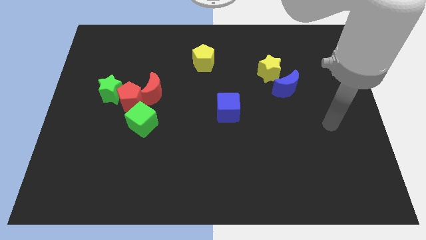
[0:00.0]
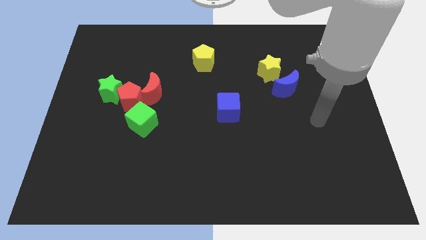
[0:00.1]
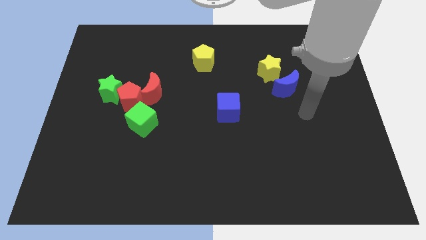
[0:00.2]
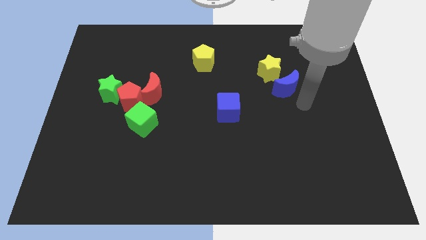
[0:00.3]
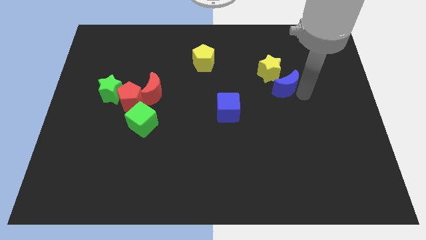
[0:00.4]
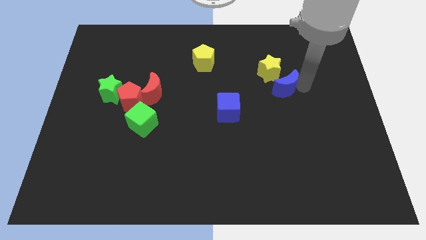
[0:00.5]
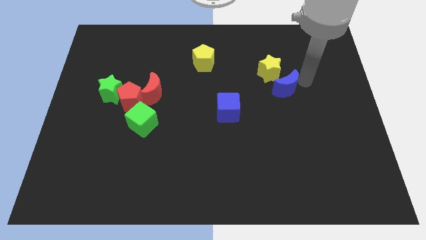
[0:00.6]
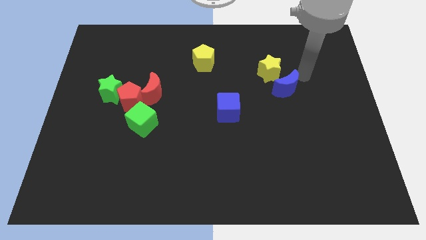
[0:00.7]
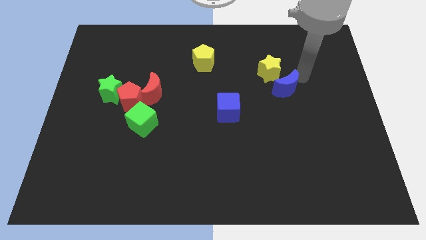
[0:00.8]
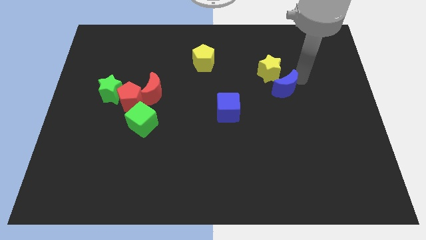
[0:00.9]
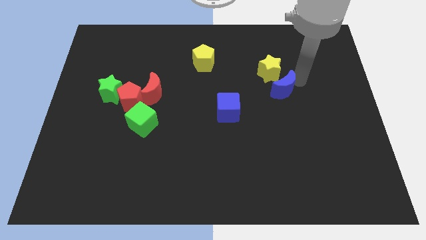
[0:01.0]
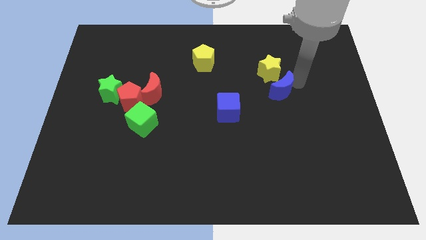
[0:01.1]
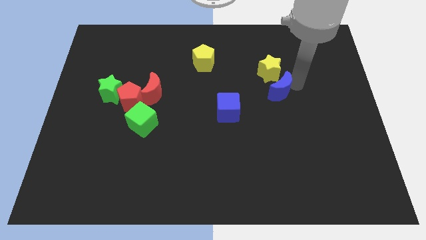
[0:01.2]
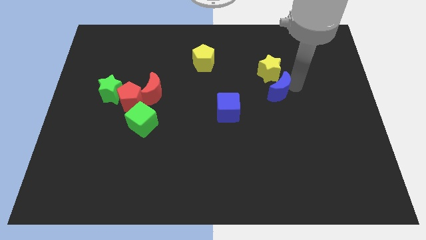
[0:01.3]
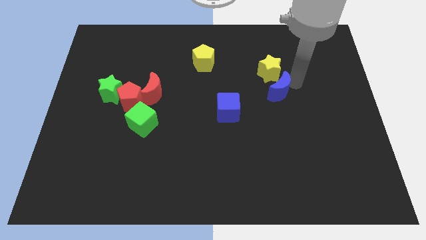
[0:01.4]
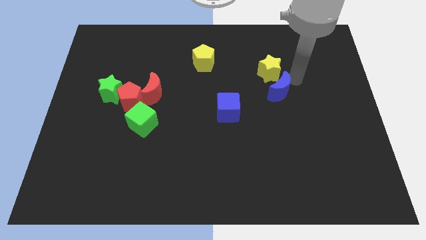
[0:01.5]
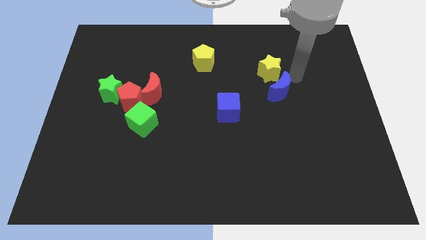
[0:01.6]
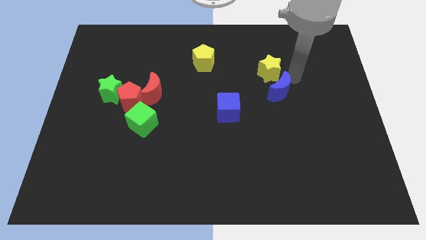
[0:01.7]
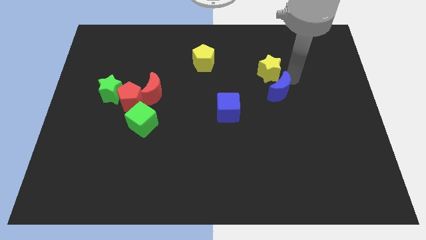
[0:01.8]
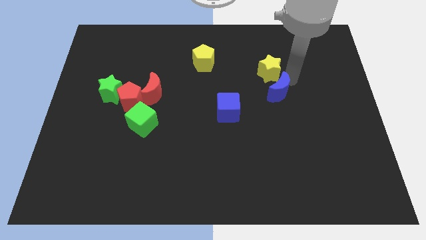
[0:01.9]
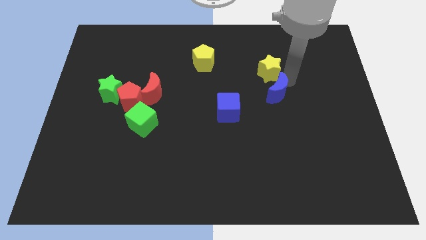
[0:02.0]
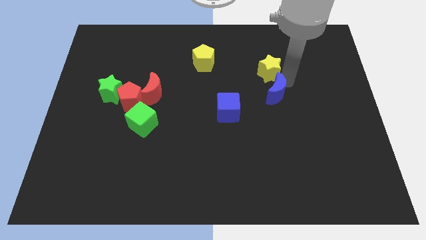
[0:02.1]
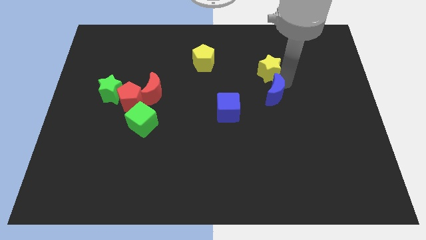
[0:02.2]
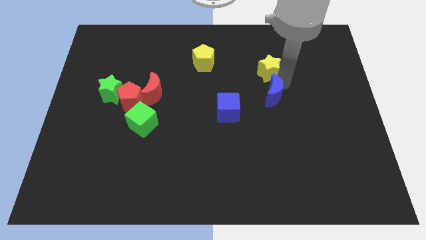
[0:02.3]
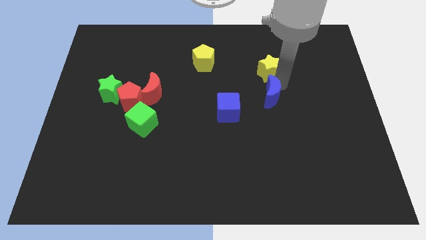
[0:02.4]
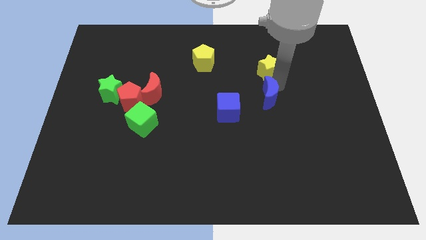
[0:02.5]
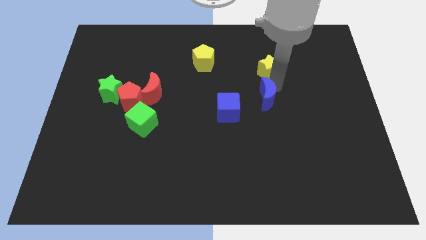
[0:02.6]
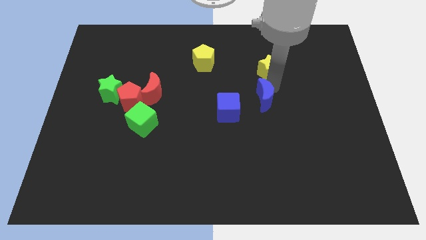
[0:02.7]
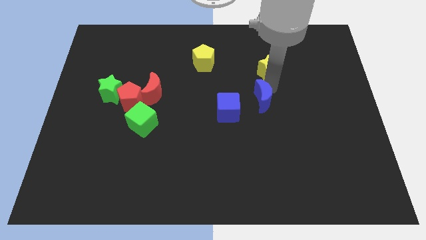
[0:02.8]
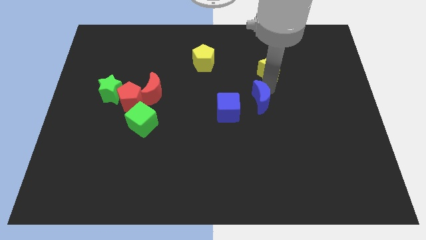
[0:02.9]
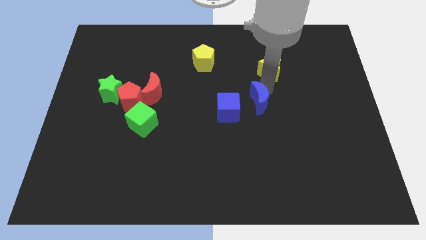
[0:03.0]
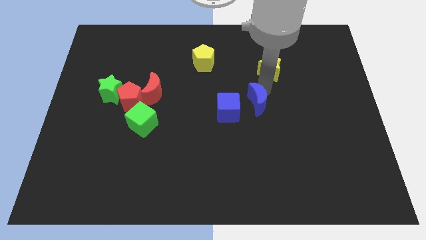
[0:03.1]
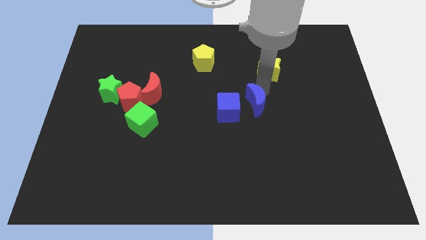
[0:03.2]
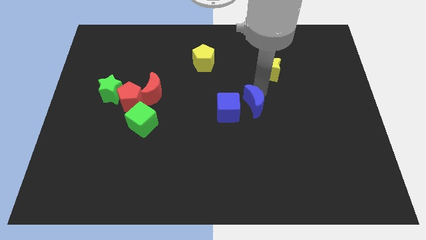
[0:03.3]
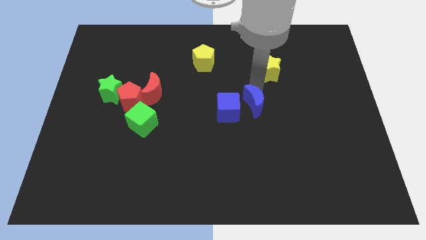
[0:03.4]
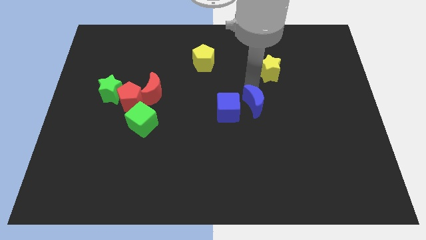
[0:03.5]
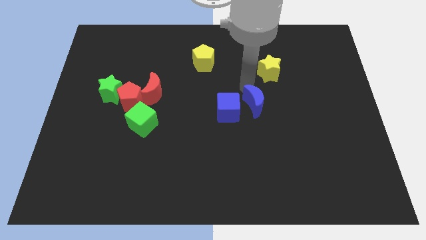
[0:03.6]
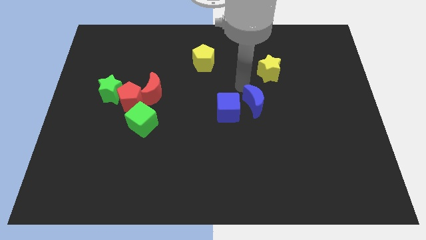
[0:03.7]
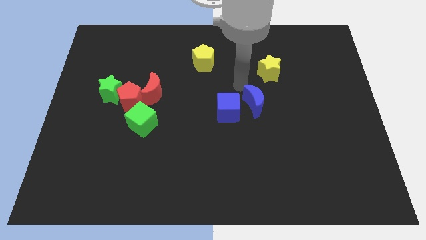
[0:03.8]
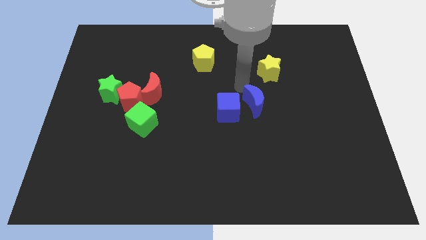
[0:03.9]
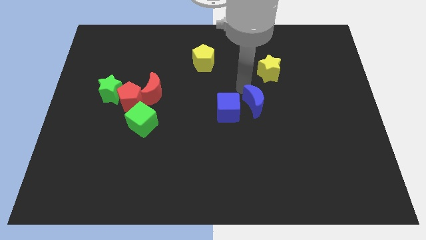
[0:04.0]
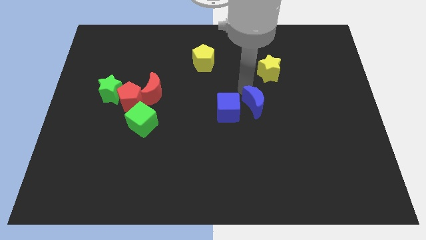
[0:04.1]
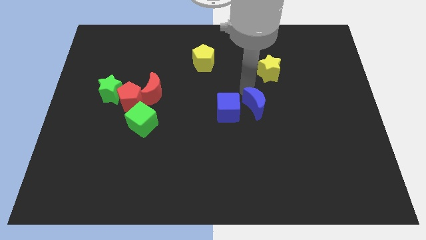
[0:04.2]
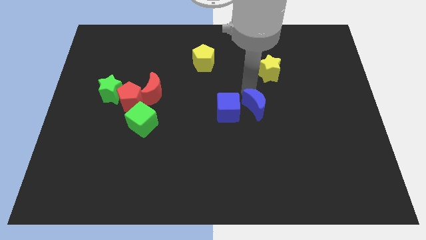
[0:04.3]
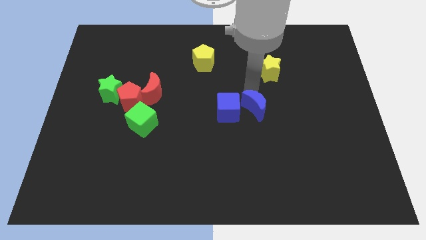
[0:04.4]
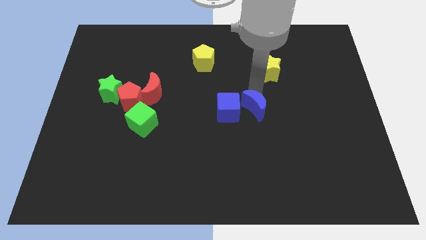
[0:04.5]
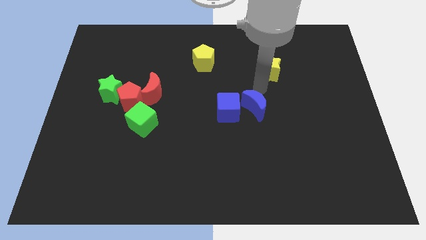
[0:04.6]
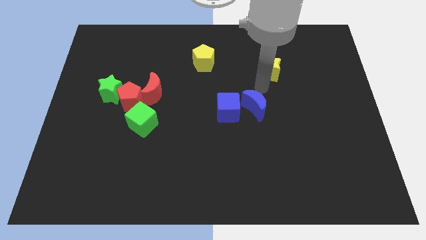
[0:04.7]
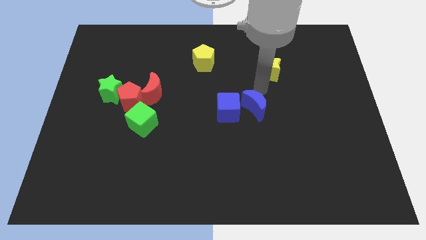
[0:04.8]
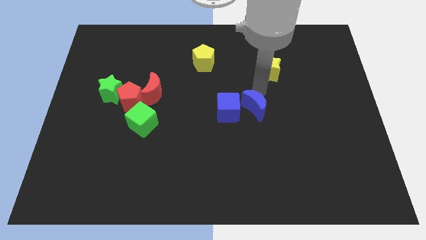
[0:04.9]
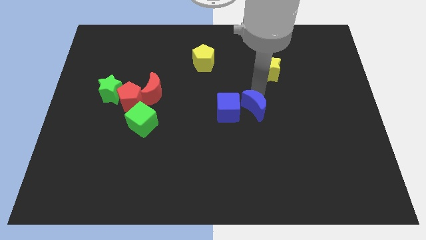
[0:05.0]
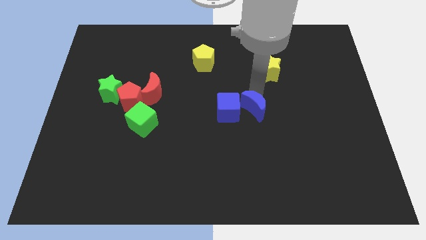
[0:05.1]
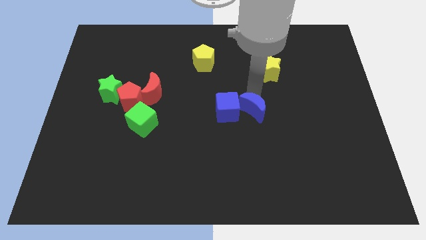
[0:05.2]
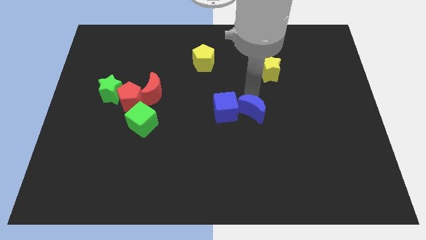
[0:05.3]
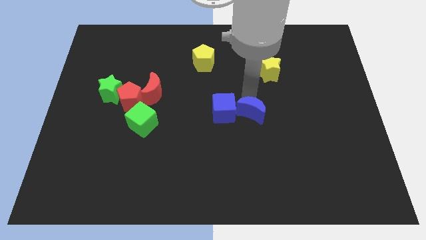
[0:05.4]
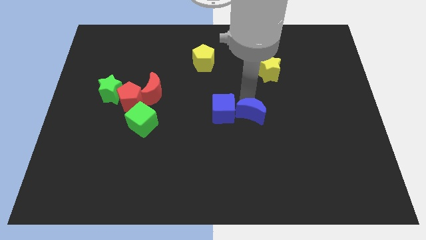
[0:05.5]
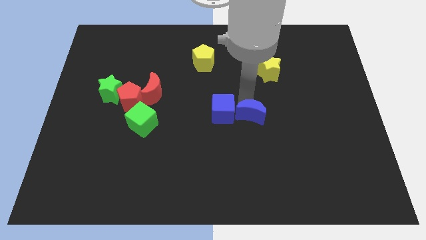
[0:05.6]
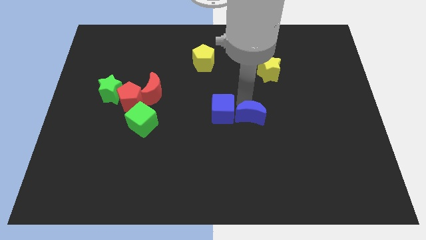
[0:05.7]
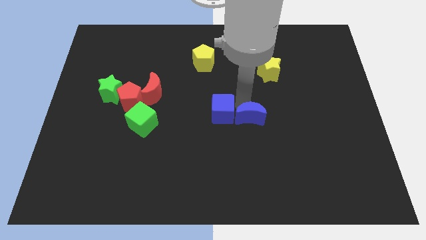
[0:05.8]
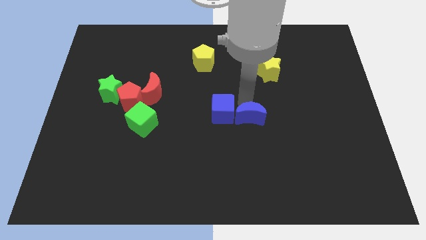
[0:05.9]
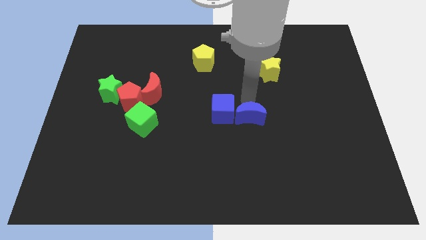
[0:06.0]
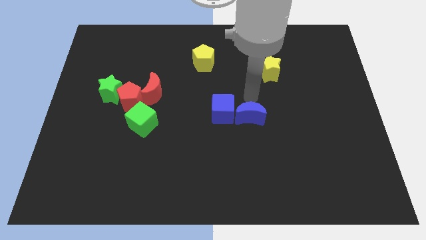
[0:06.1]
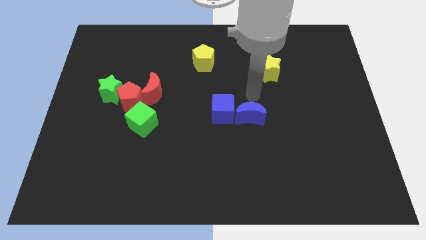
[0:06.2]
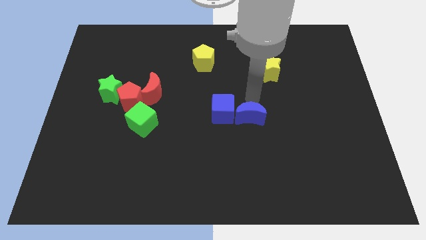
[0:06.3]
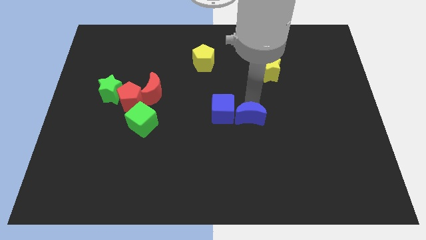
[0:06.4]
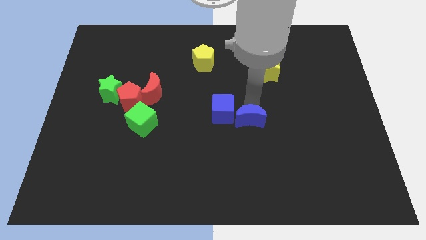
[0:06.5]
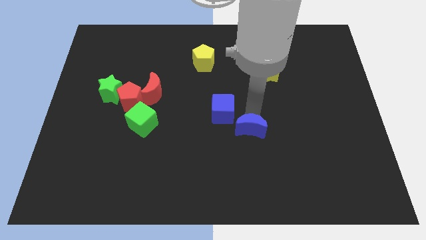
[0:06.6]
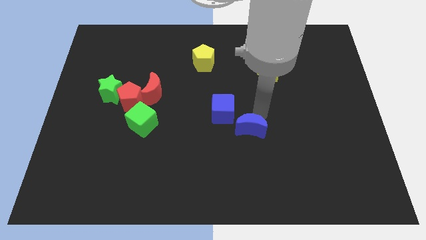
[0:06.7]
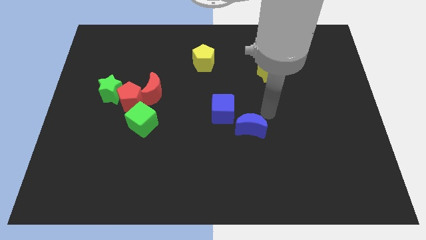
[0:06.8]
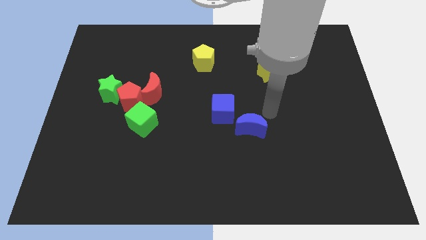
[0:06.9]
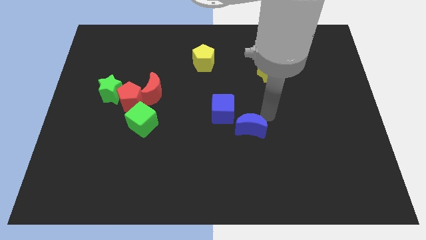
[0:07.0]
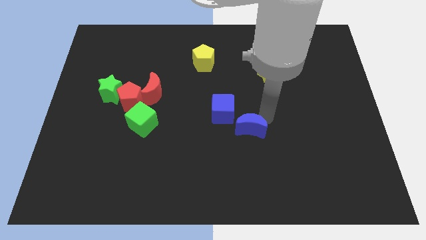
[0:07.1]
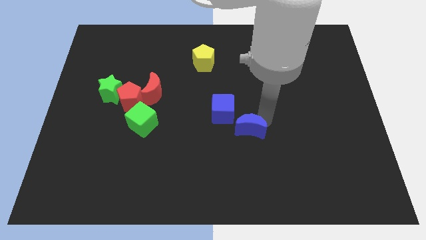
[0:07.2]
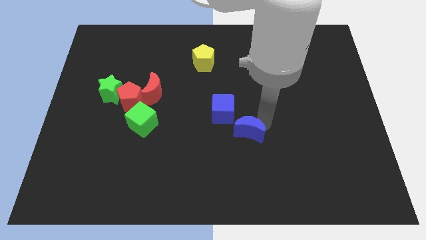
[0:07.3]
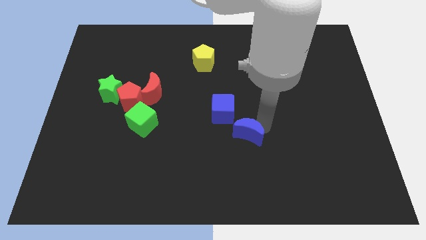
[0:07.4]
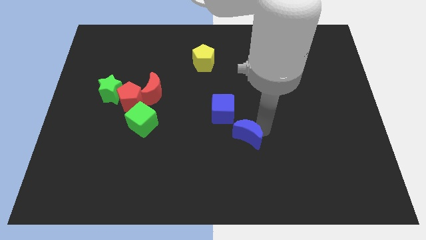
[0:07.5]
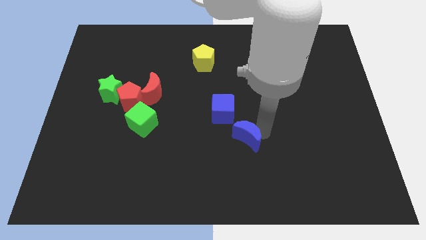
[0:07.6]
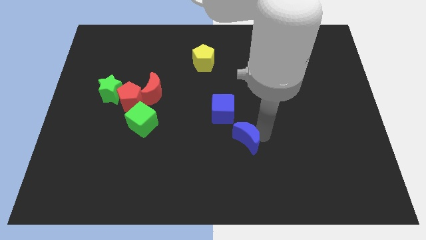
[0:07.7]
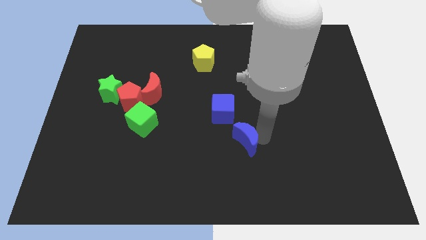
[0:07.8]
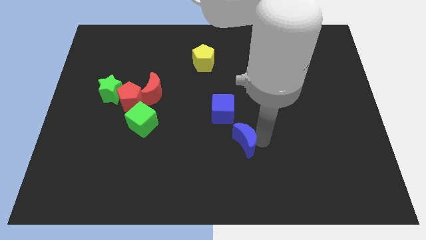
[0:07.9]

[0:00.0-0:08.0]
slide the blue moon to the bottom side of the blue cube
